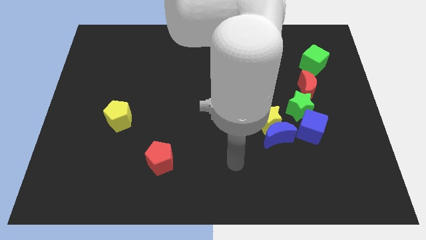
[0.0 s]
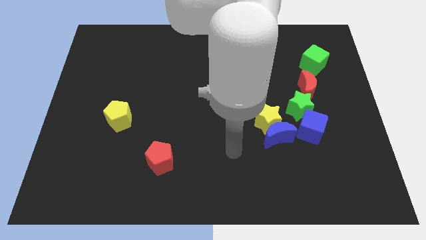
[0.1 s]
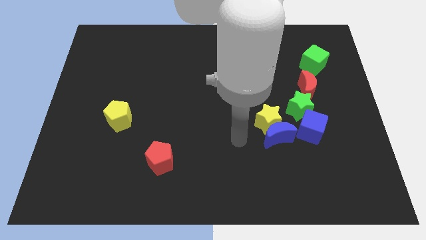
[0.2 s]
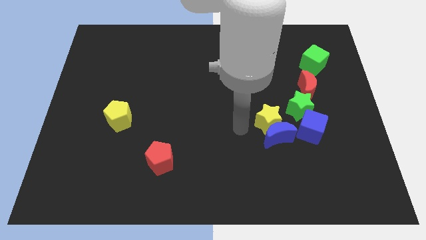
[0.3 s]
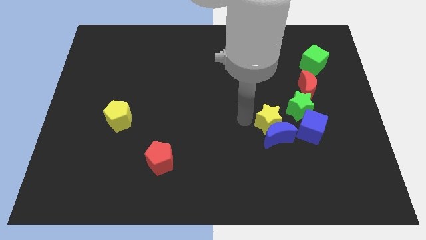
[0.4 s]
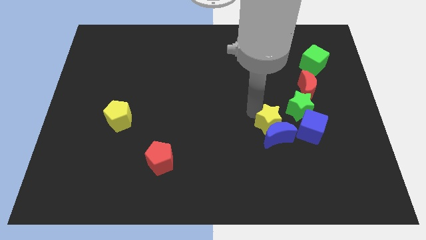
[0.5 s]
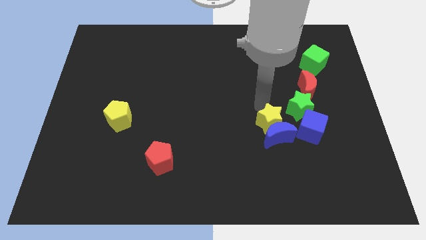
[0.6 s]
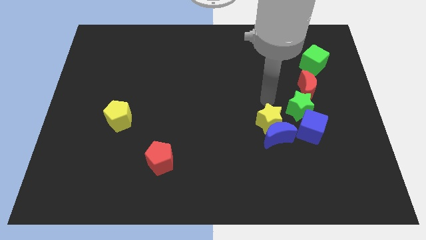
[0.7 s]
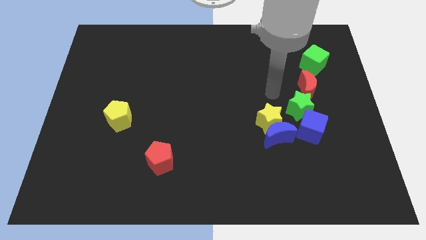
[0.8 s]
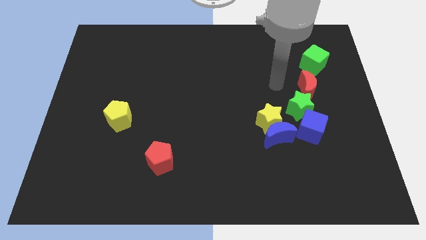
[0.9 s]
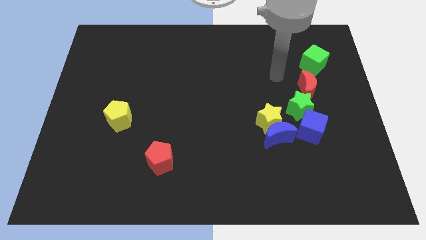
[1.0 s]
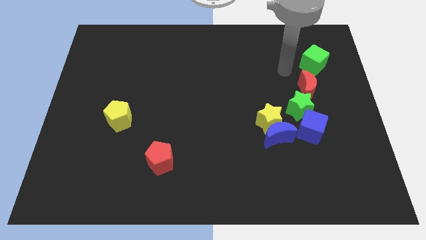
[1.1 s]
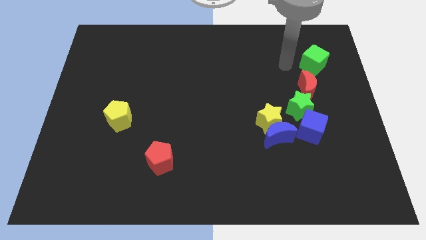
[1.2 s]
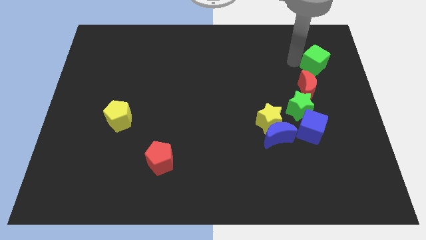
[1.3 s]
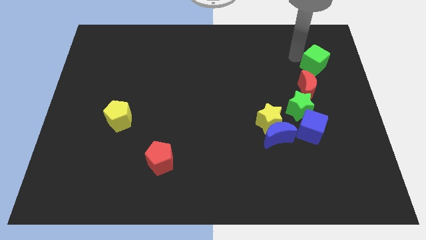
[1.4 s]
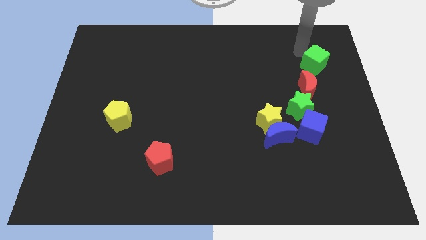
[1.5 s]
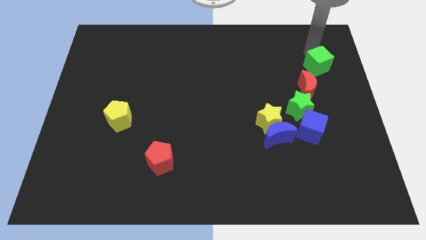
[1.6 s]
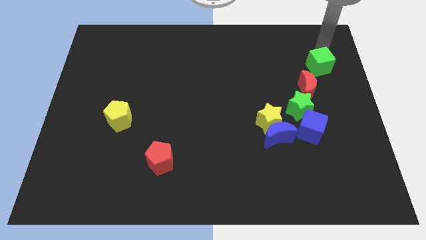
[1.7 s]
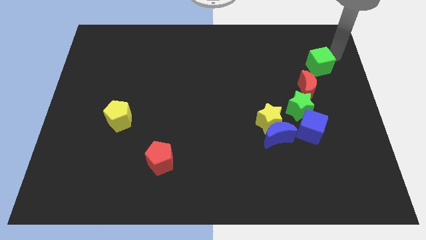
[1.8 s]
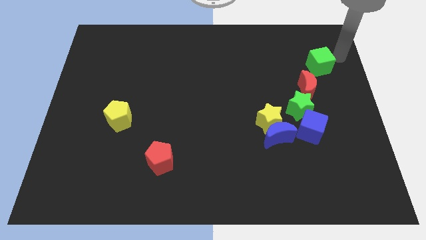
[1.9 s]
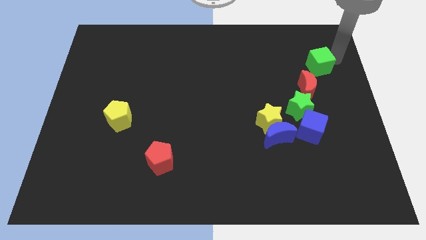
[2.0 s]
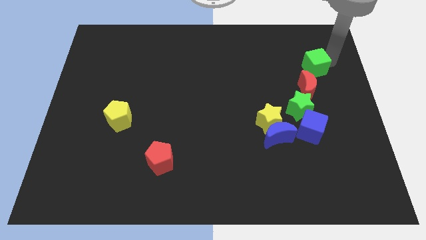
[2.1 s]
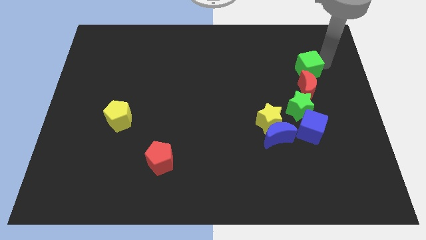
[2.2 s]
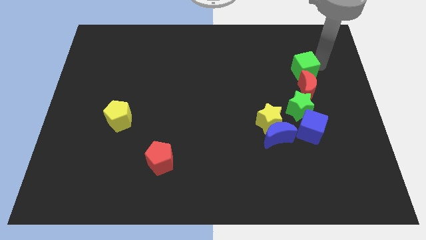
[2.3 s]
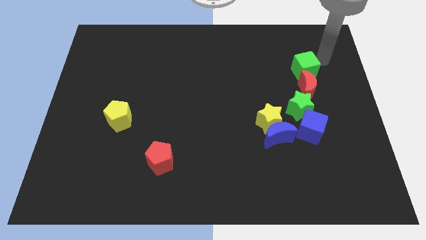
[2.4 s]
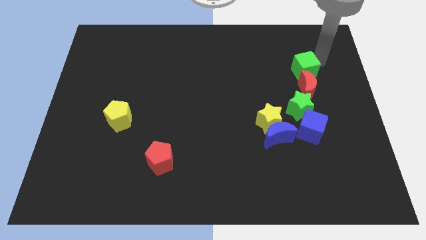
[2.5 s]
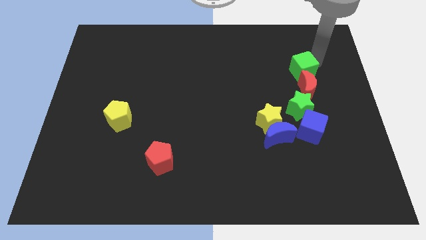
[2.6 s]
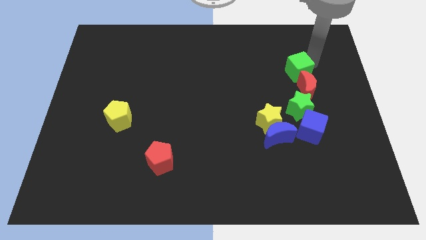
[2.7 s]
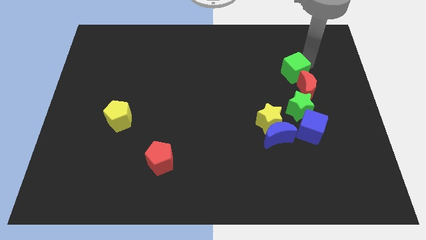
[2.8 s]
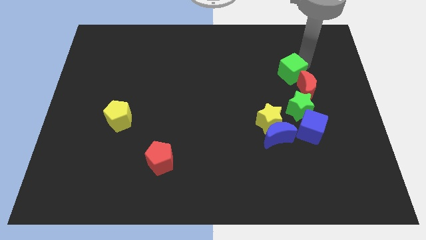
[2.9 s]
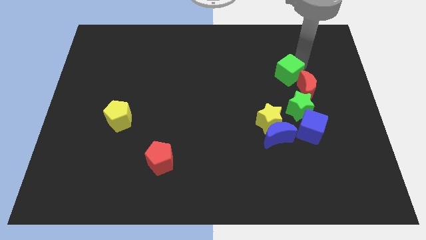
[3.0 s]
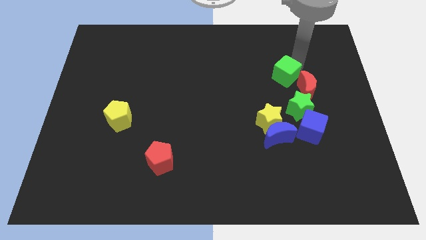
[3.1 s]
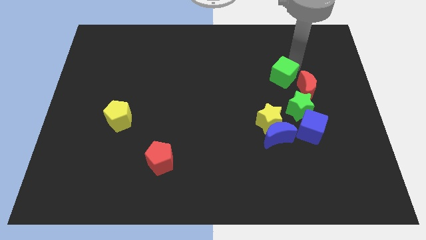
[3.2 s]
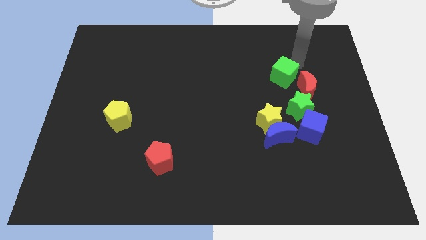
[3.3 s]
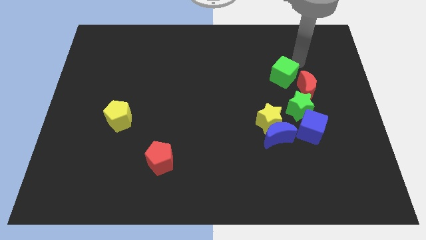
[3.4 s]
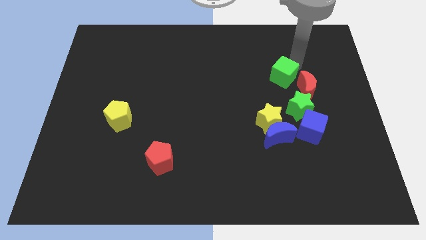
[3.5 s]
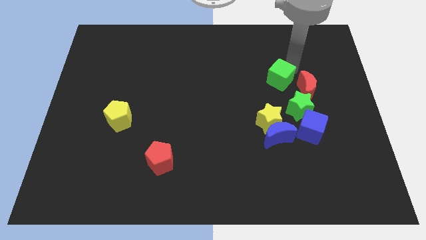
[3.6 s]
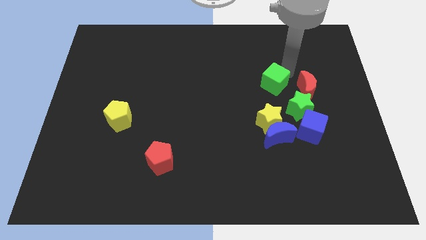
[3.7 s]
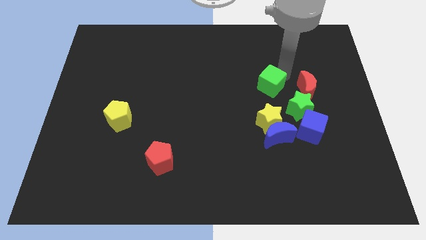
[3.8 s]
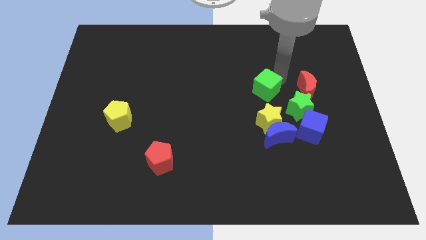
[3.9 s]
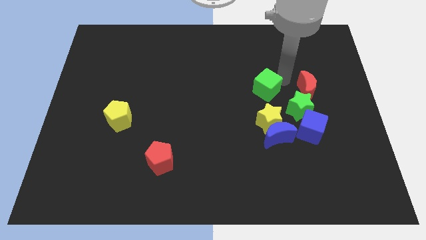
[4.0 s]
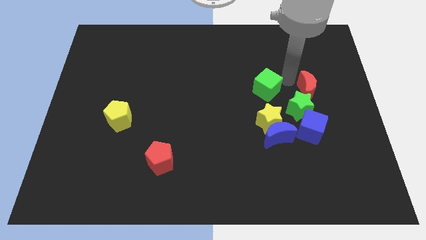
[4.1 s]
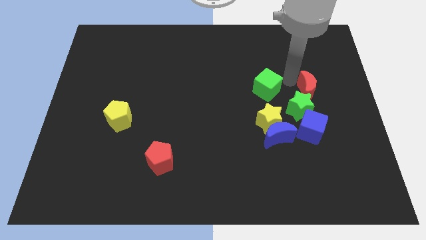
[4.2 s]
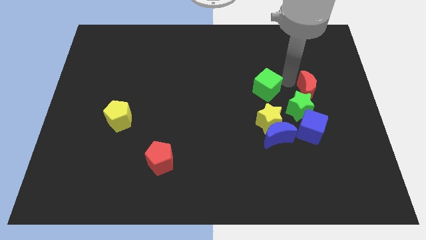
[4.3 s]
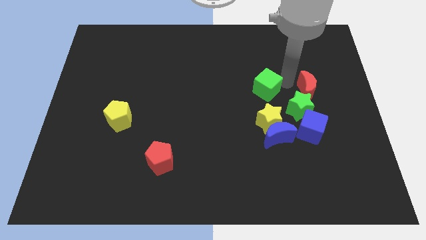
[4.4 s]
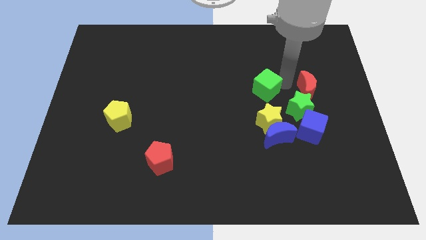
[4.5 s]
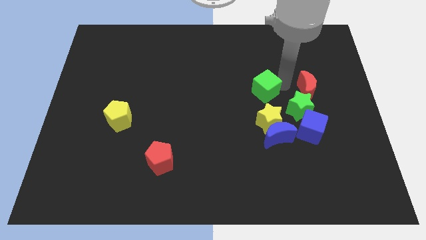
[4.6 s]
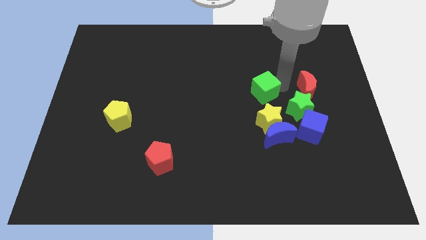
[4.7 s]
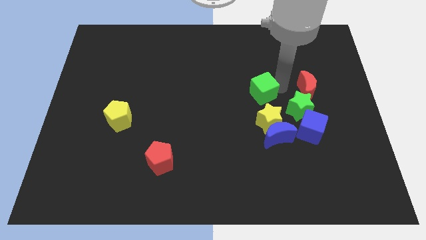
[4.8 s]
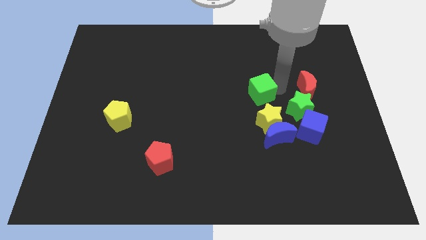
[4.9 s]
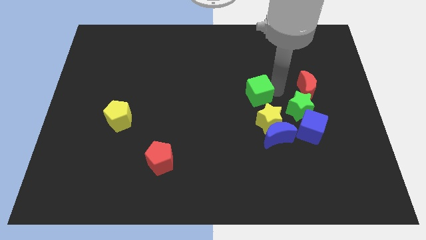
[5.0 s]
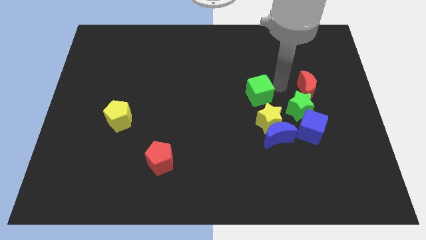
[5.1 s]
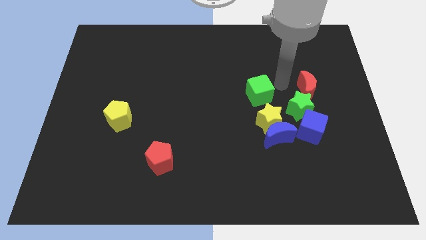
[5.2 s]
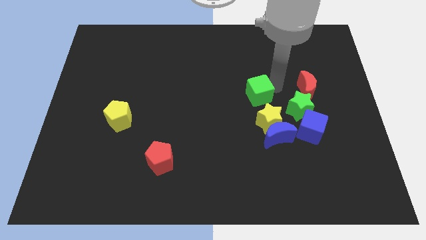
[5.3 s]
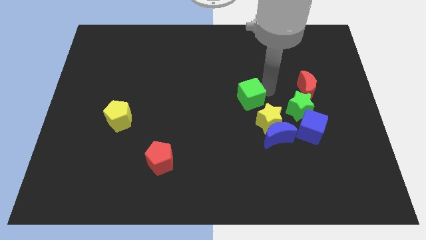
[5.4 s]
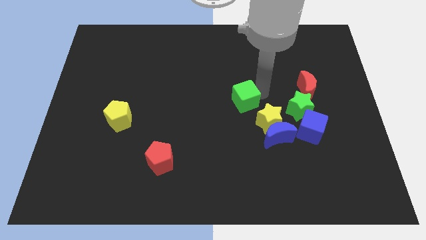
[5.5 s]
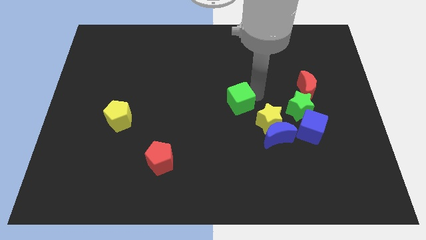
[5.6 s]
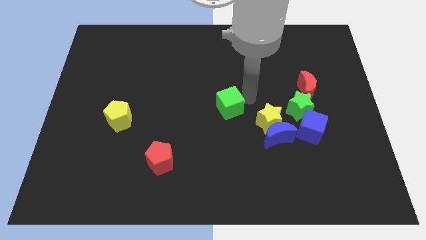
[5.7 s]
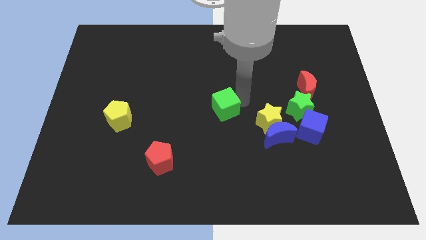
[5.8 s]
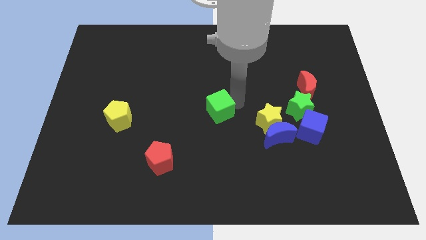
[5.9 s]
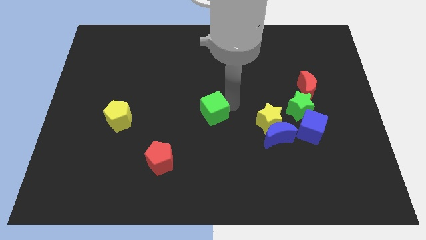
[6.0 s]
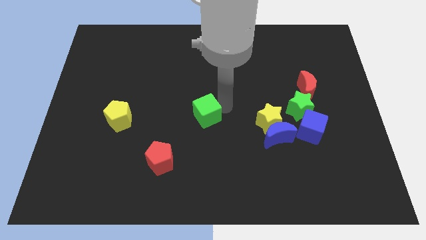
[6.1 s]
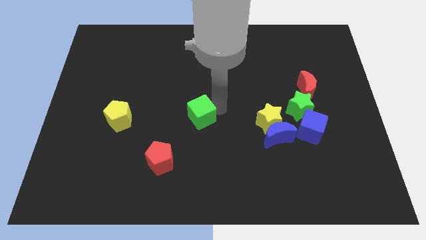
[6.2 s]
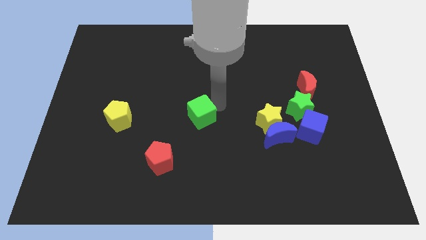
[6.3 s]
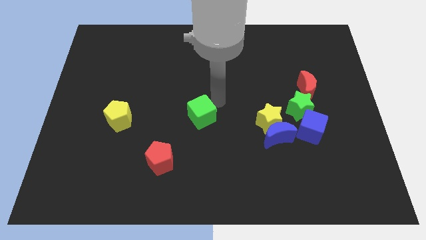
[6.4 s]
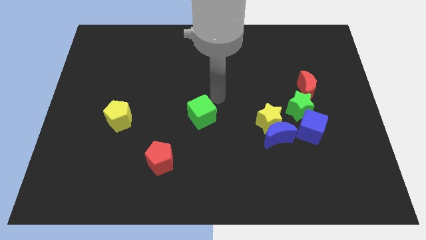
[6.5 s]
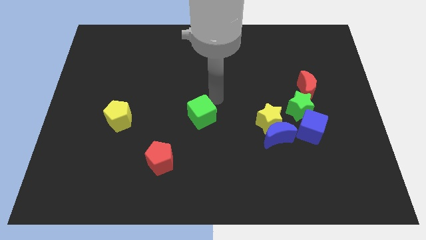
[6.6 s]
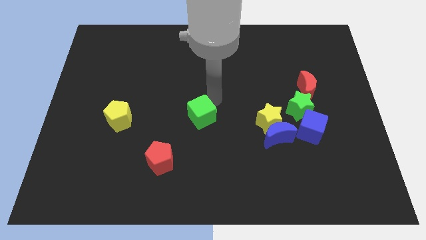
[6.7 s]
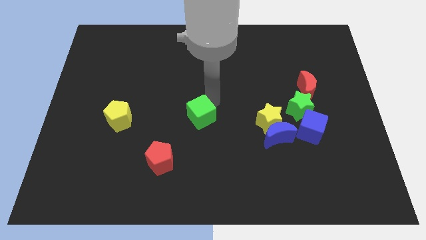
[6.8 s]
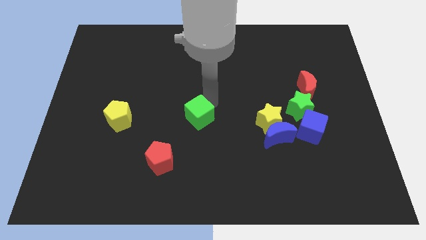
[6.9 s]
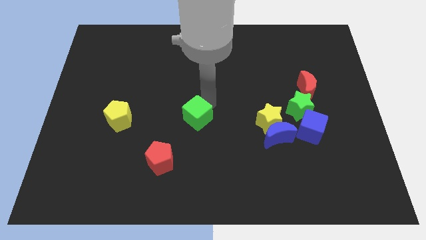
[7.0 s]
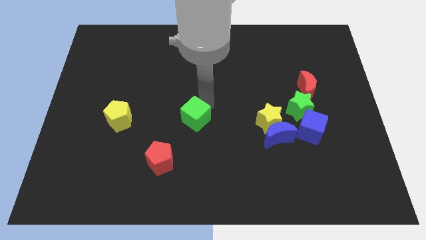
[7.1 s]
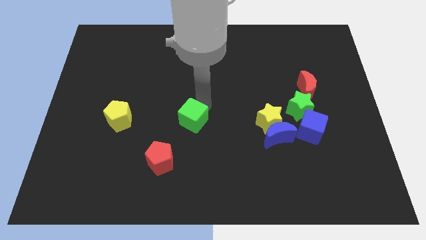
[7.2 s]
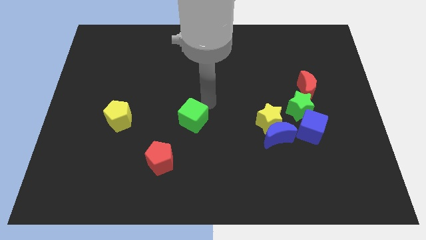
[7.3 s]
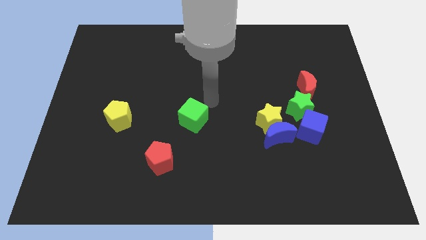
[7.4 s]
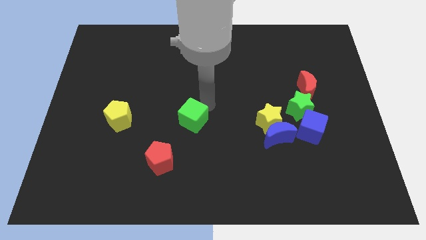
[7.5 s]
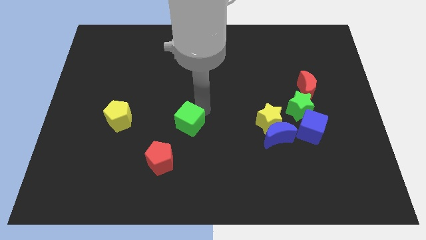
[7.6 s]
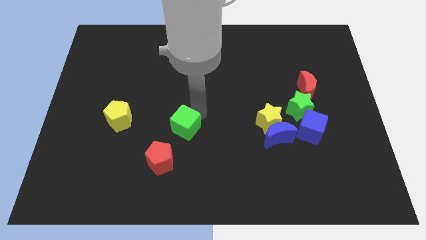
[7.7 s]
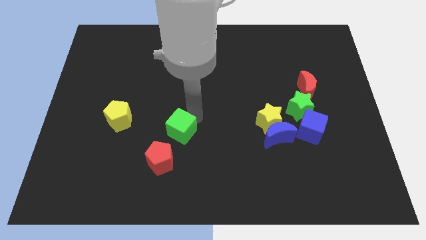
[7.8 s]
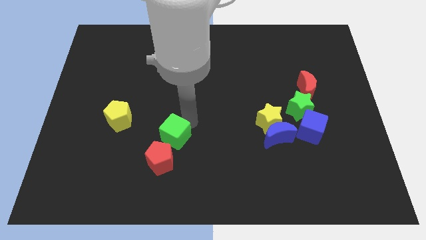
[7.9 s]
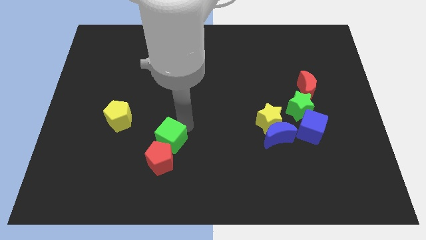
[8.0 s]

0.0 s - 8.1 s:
slide the green cube to the red pentagon
